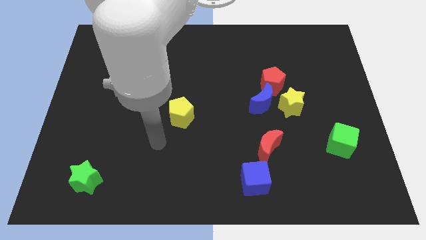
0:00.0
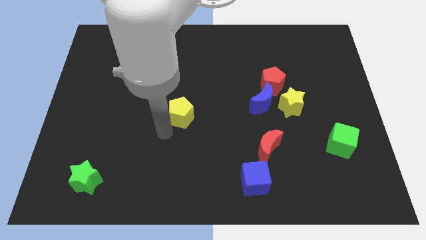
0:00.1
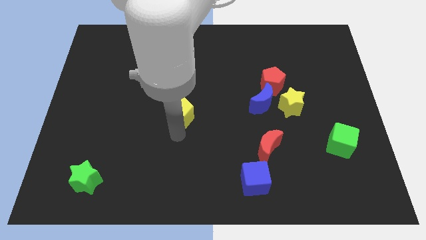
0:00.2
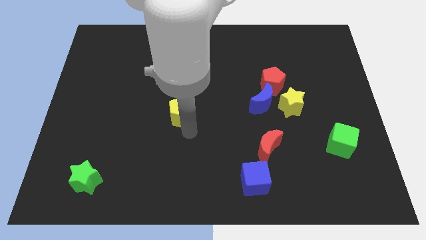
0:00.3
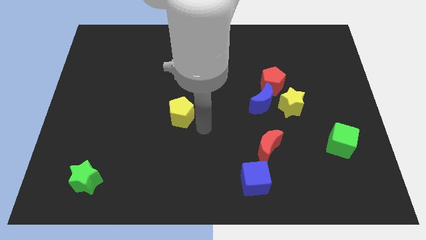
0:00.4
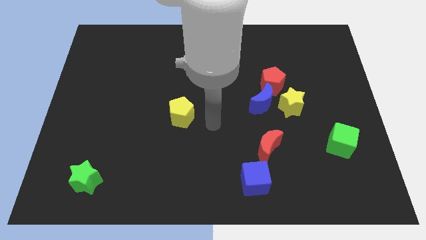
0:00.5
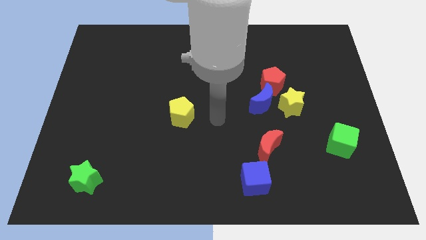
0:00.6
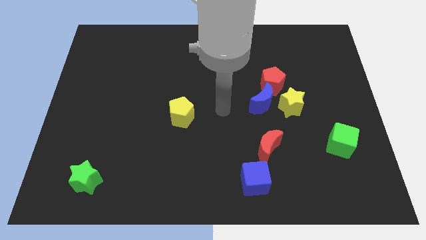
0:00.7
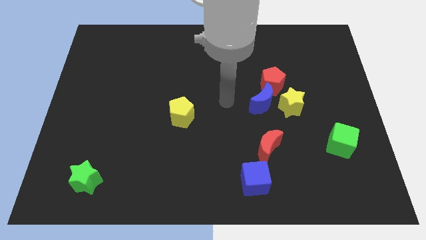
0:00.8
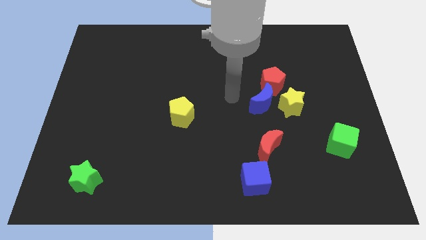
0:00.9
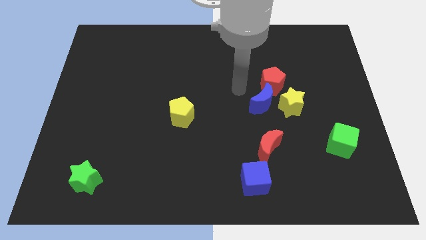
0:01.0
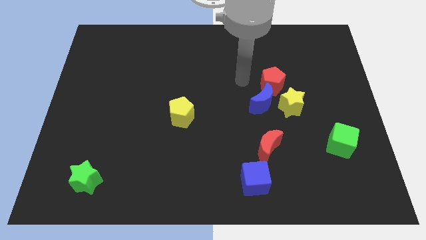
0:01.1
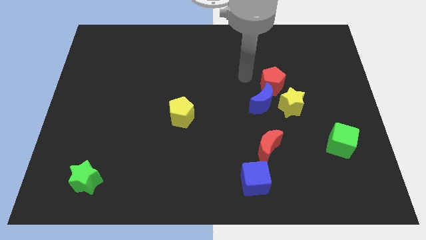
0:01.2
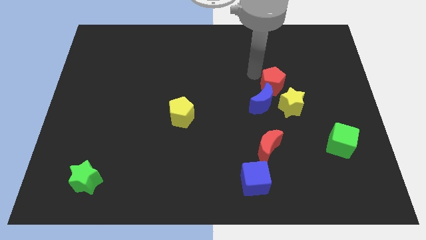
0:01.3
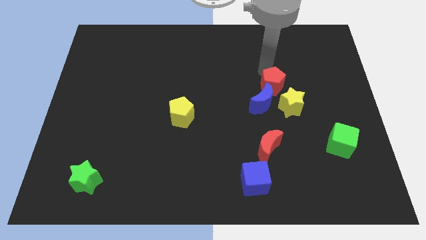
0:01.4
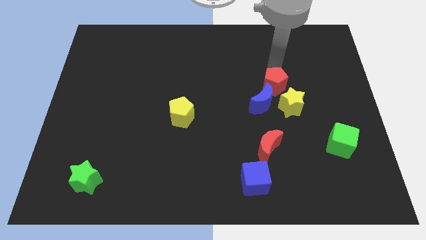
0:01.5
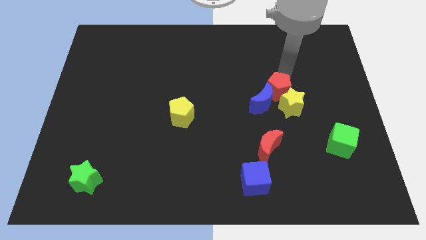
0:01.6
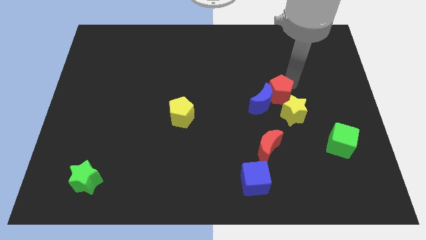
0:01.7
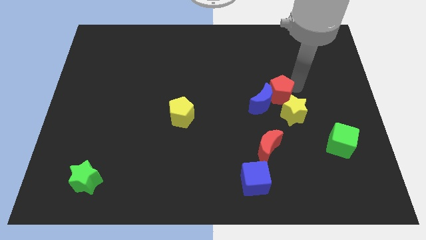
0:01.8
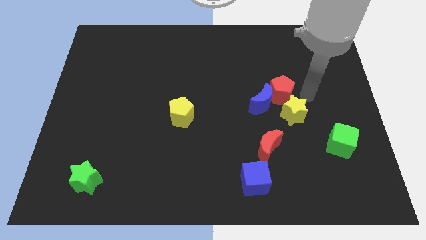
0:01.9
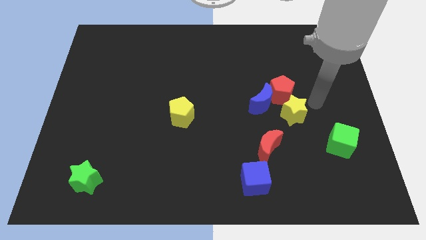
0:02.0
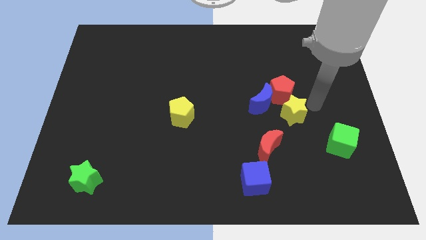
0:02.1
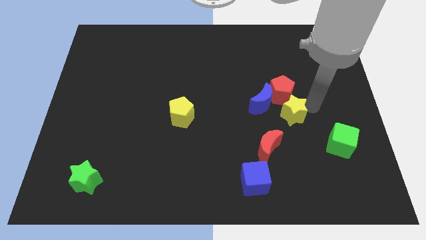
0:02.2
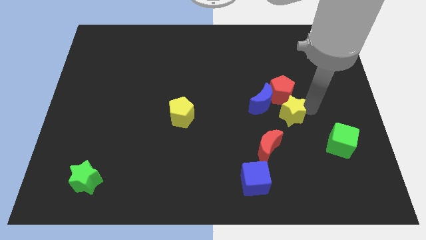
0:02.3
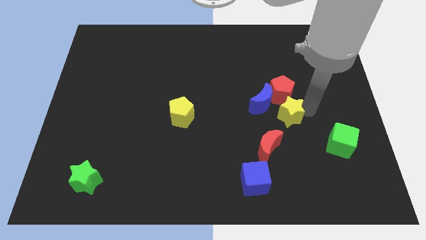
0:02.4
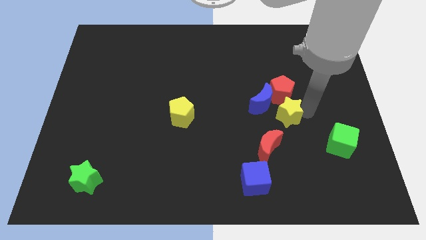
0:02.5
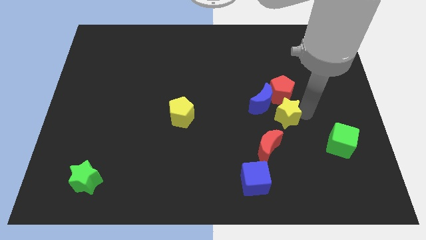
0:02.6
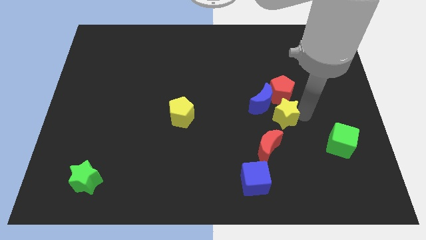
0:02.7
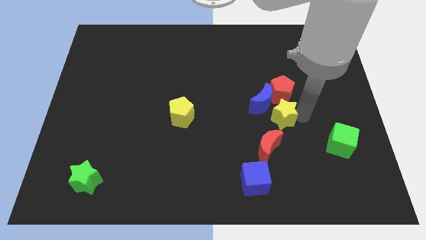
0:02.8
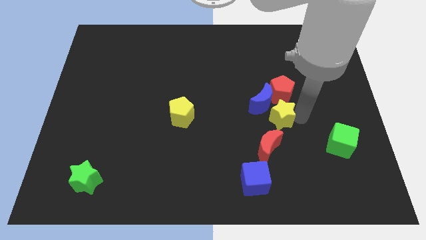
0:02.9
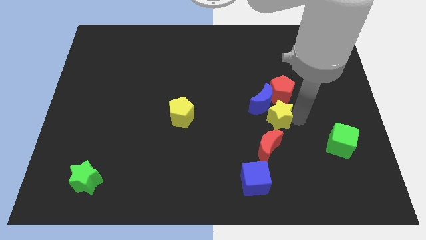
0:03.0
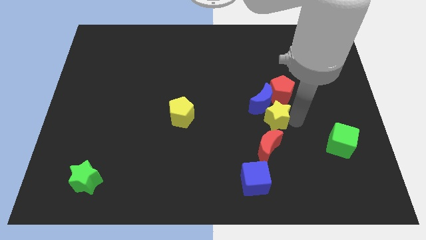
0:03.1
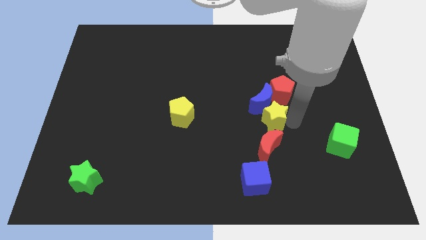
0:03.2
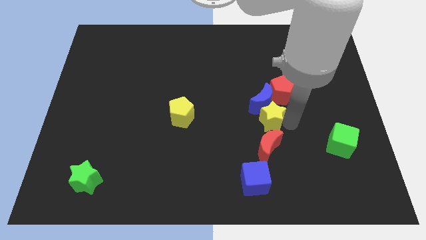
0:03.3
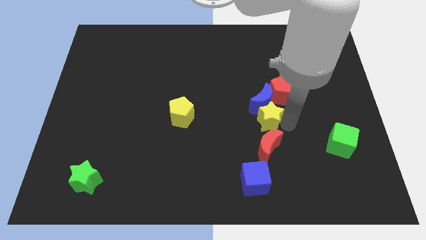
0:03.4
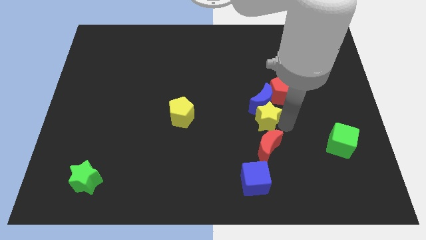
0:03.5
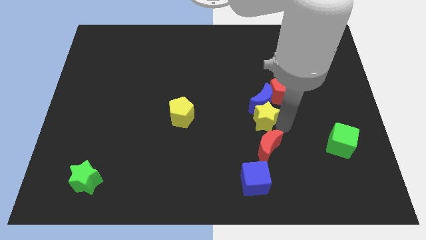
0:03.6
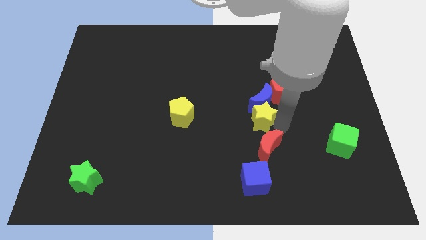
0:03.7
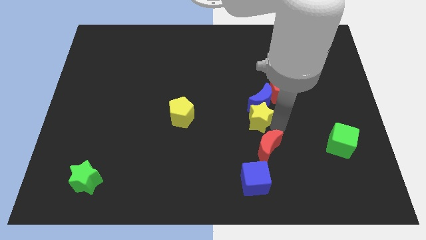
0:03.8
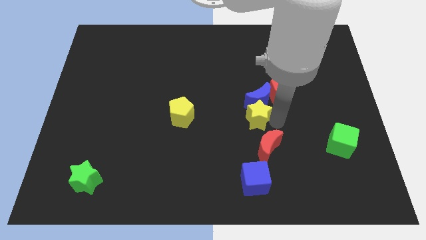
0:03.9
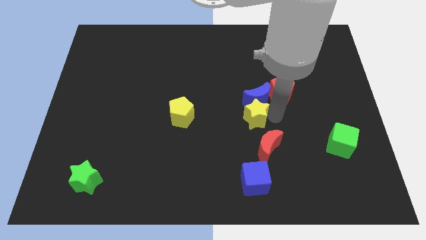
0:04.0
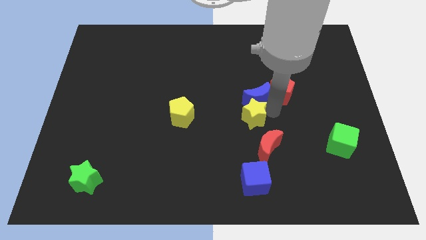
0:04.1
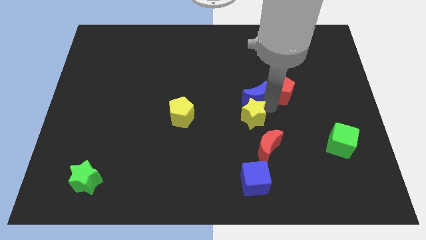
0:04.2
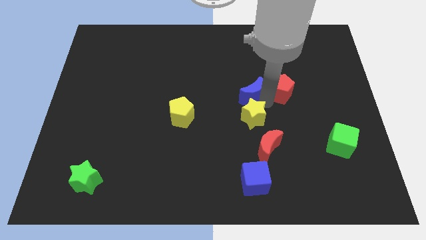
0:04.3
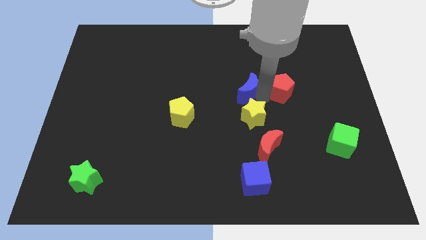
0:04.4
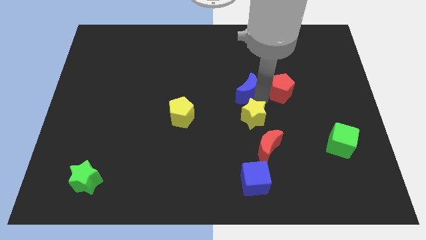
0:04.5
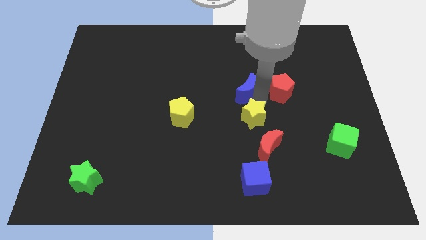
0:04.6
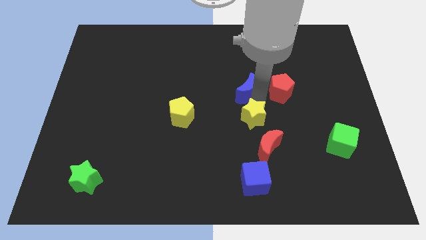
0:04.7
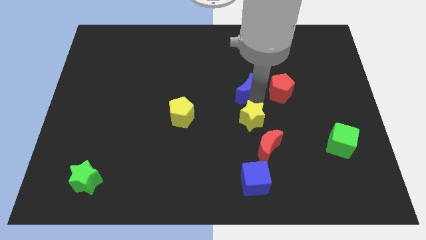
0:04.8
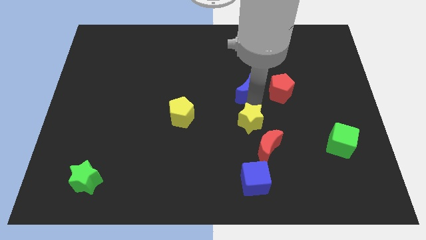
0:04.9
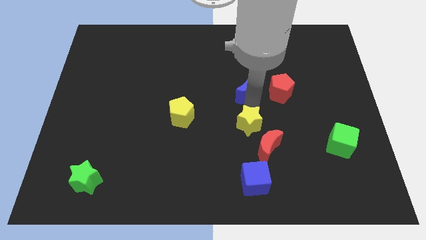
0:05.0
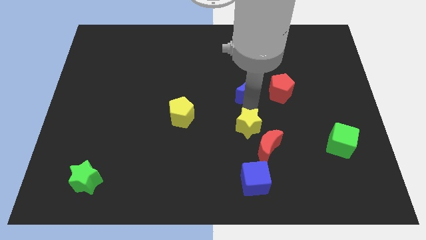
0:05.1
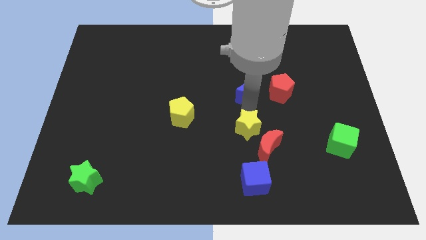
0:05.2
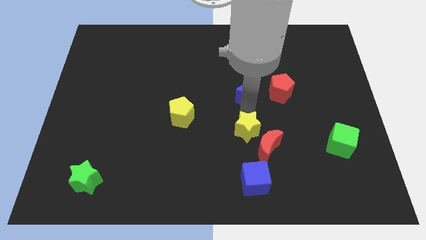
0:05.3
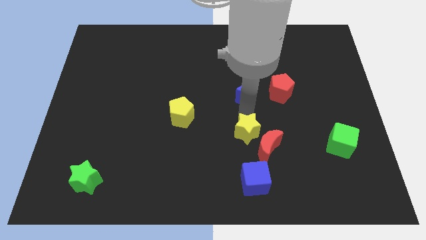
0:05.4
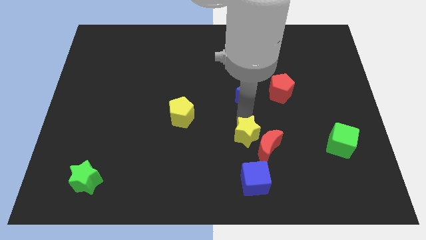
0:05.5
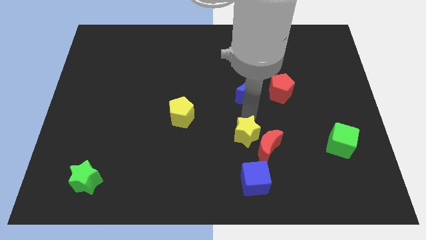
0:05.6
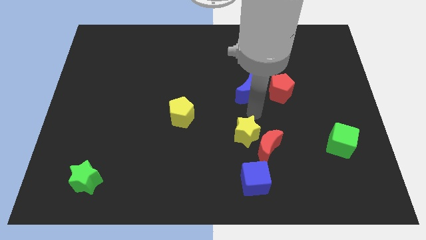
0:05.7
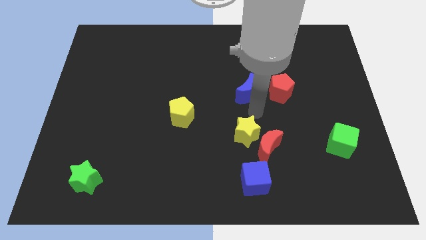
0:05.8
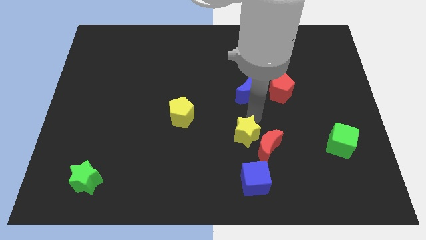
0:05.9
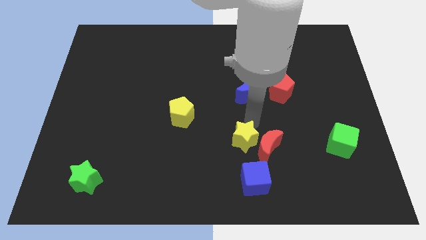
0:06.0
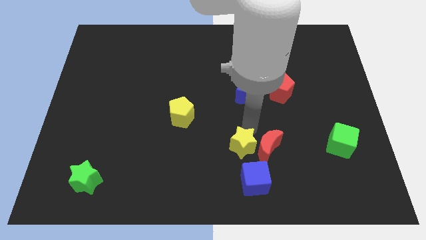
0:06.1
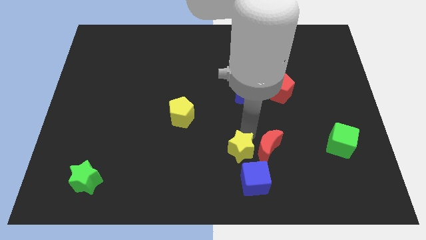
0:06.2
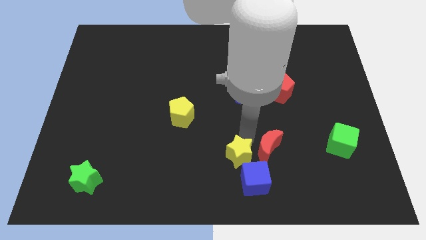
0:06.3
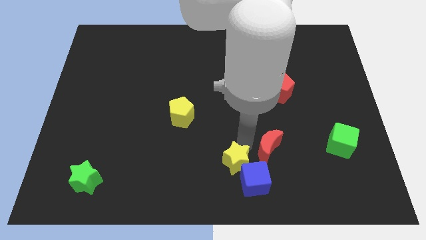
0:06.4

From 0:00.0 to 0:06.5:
slide the yellow star to the bottom

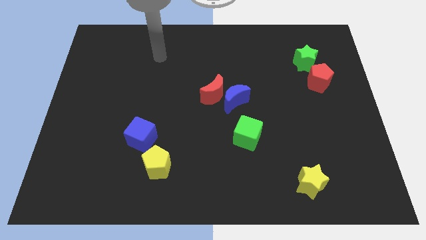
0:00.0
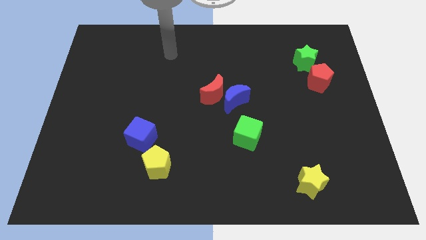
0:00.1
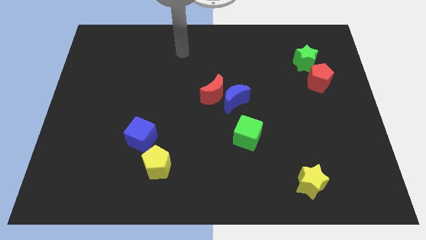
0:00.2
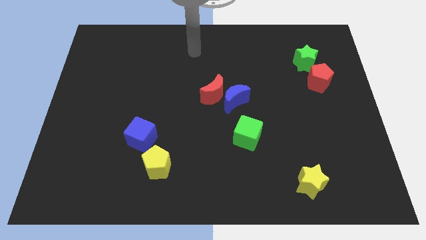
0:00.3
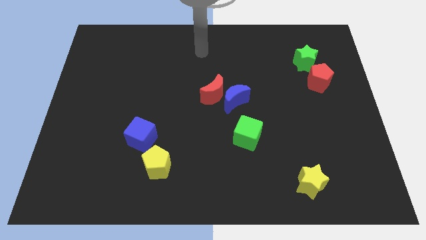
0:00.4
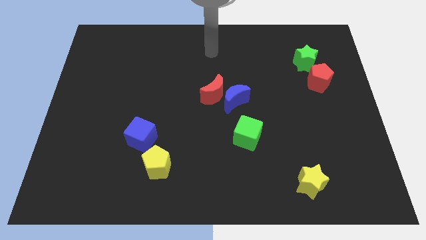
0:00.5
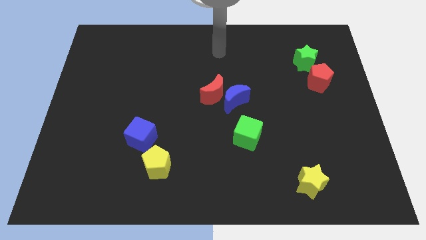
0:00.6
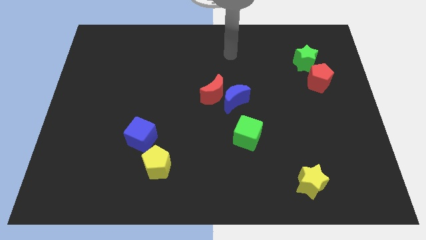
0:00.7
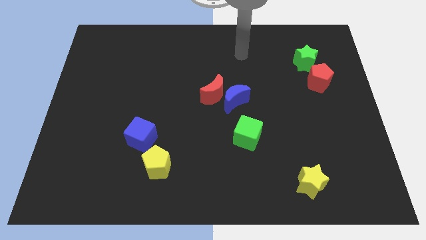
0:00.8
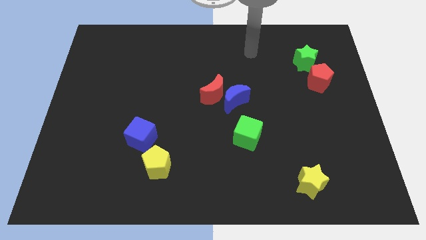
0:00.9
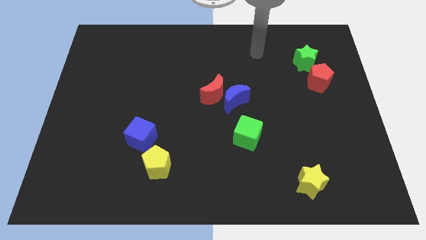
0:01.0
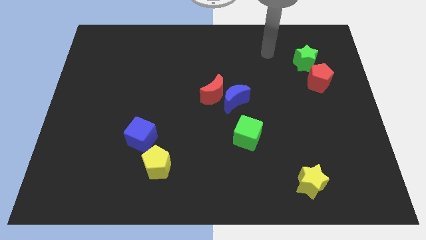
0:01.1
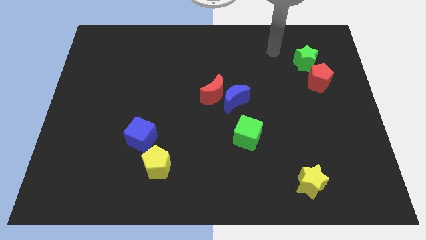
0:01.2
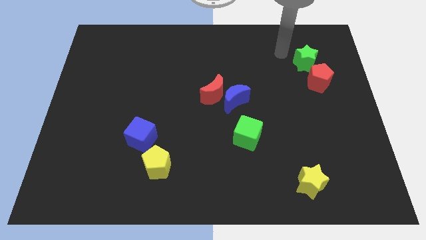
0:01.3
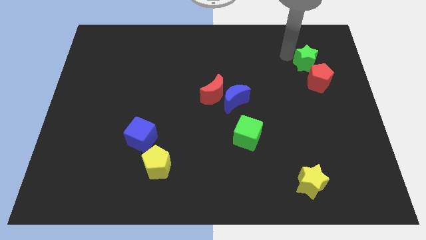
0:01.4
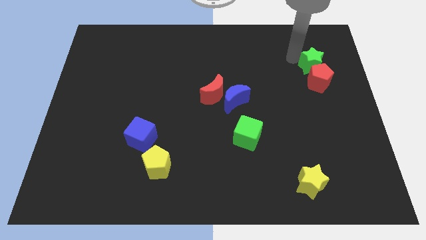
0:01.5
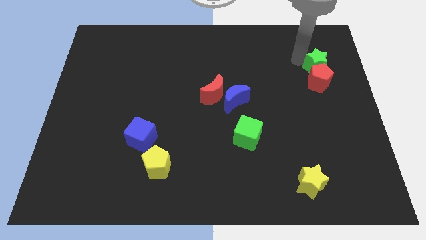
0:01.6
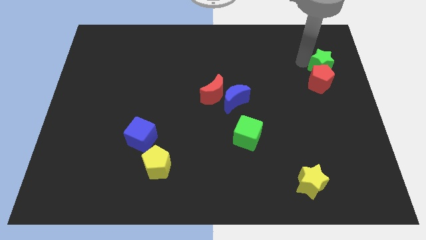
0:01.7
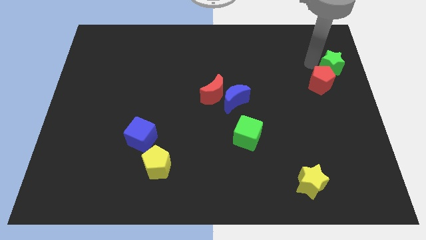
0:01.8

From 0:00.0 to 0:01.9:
put the green star to the right side of the board
